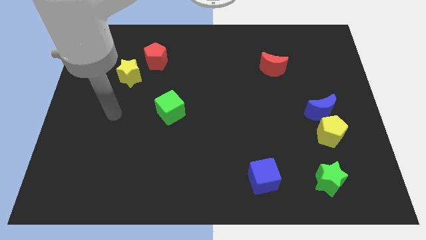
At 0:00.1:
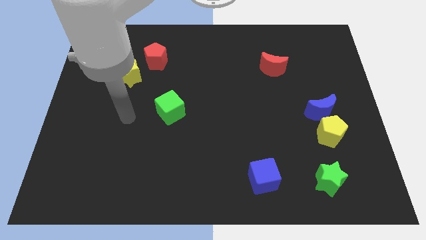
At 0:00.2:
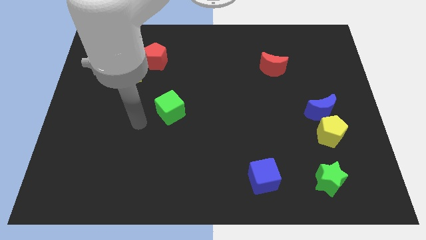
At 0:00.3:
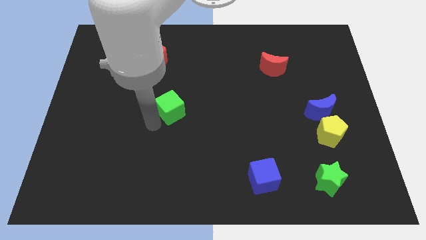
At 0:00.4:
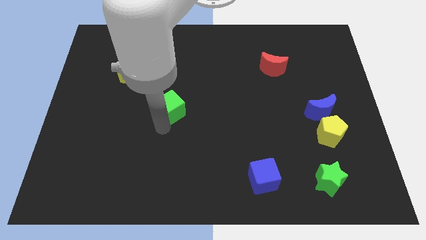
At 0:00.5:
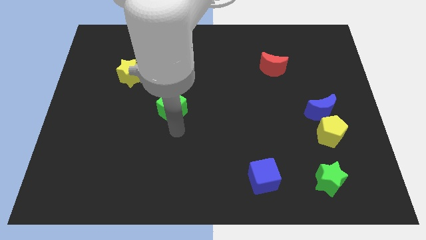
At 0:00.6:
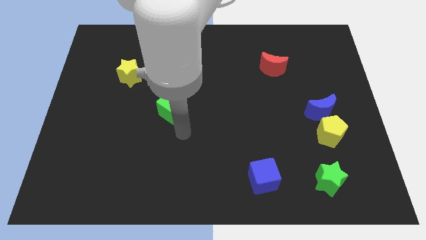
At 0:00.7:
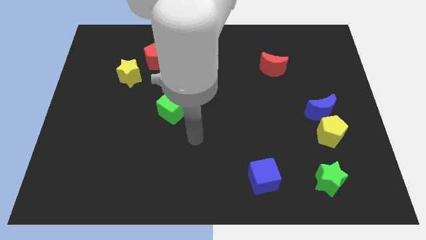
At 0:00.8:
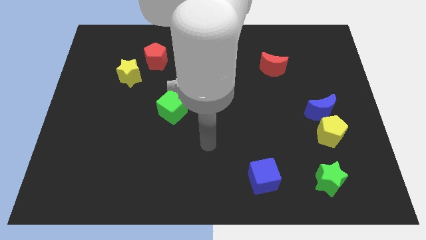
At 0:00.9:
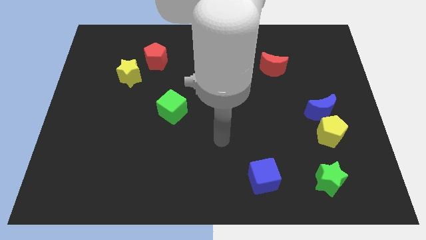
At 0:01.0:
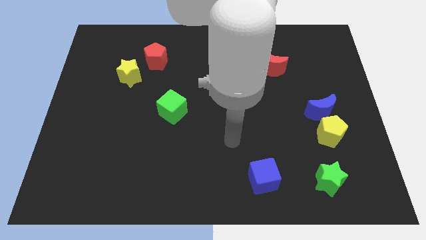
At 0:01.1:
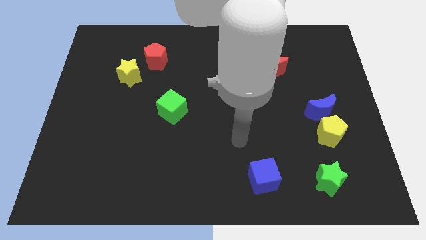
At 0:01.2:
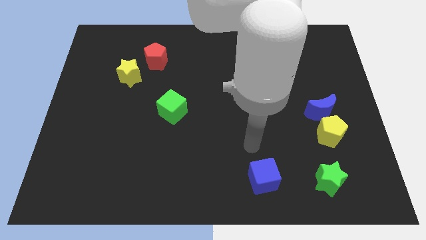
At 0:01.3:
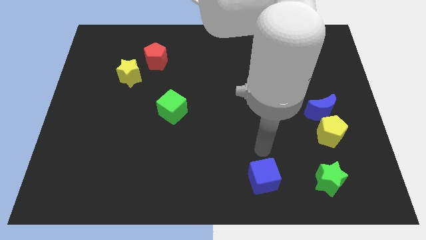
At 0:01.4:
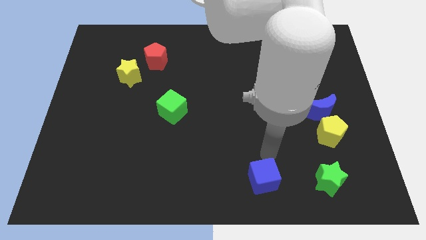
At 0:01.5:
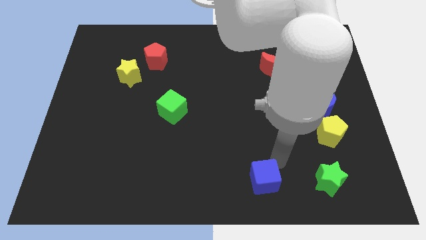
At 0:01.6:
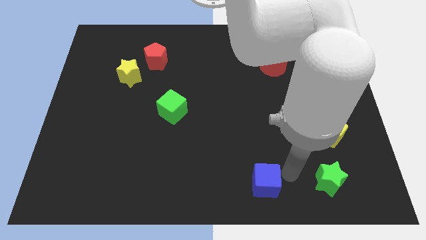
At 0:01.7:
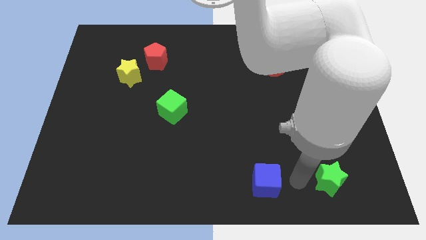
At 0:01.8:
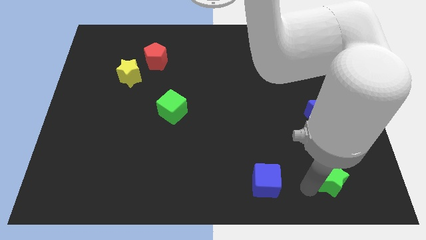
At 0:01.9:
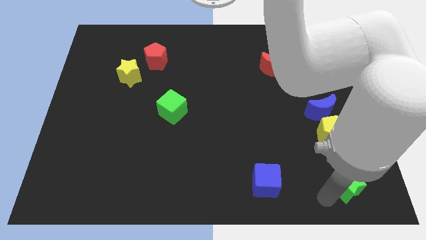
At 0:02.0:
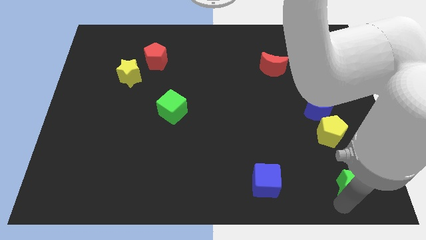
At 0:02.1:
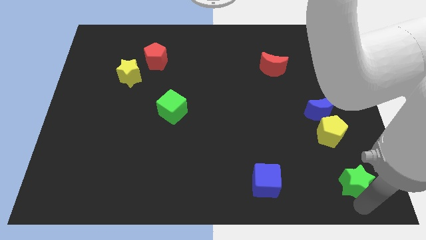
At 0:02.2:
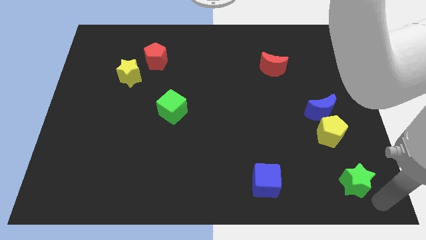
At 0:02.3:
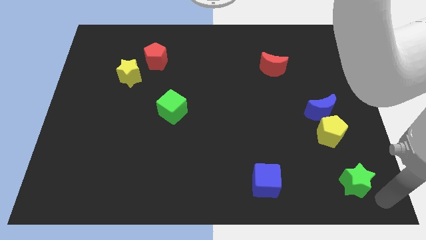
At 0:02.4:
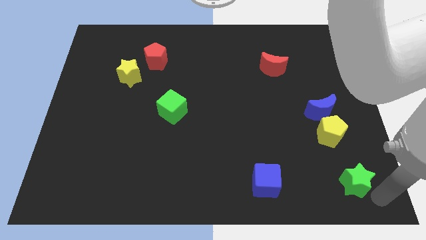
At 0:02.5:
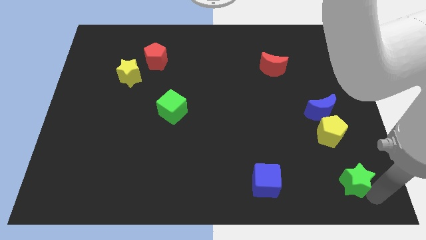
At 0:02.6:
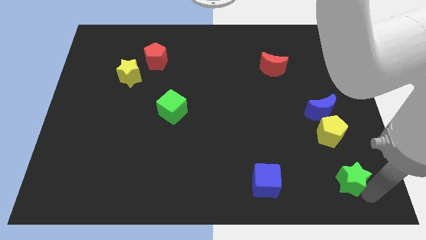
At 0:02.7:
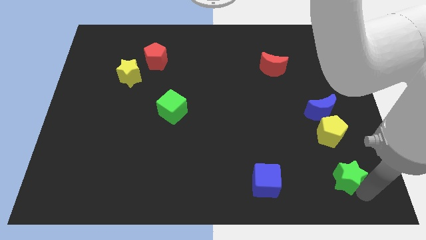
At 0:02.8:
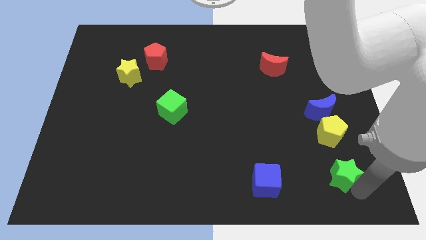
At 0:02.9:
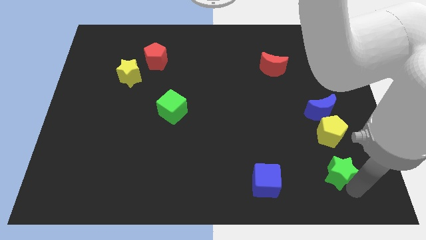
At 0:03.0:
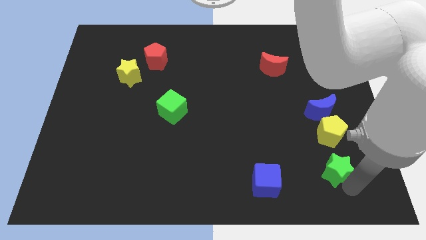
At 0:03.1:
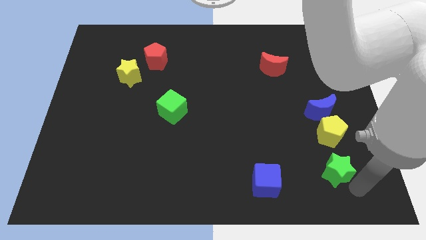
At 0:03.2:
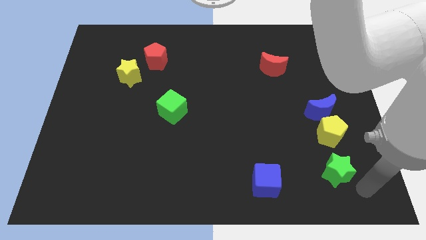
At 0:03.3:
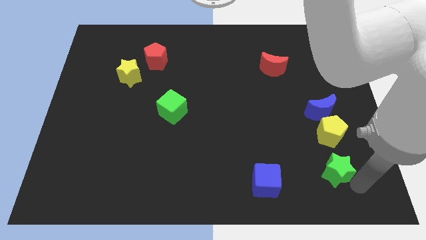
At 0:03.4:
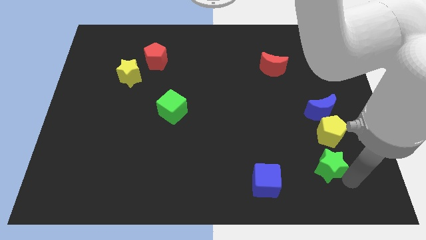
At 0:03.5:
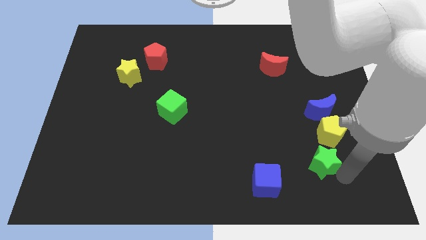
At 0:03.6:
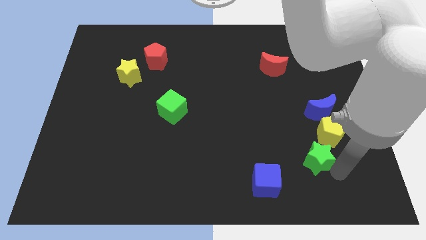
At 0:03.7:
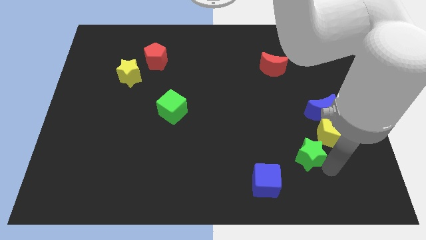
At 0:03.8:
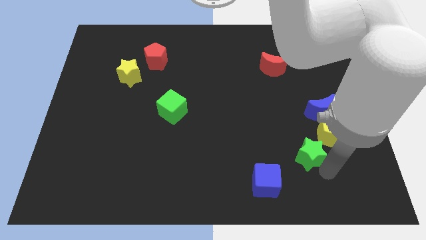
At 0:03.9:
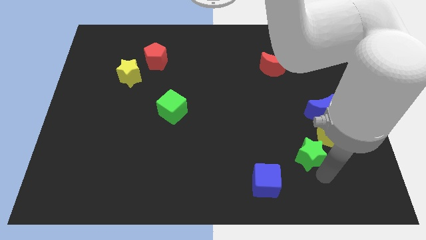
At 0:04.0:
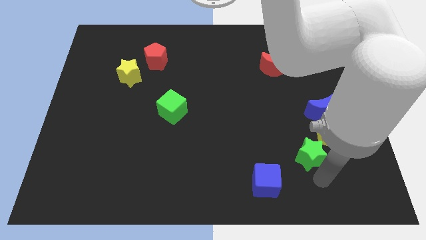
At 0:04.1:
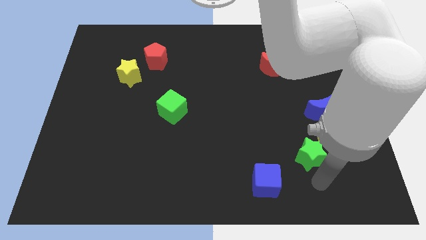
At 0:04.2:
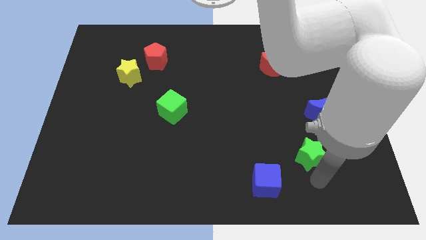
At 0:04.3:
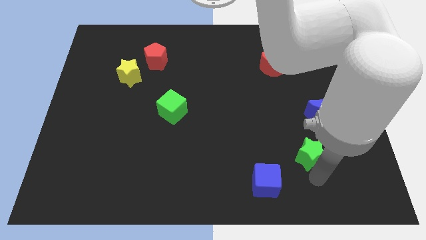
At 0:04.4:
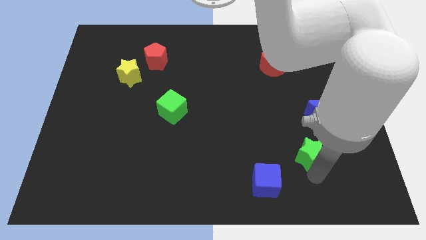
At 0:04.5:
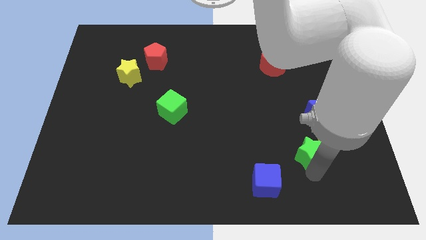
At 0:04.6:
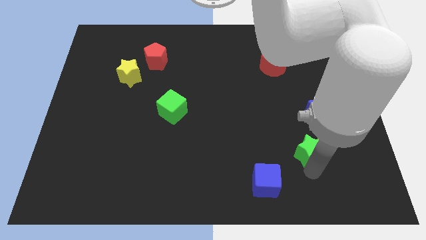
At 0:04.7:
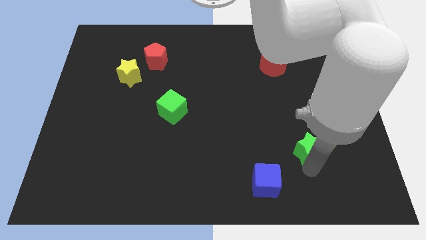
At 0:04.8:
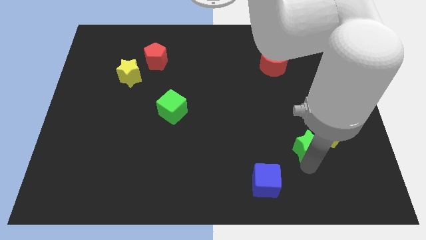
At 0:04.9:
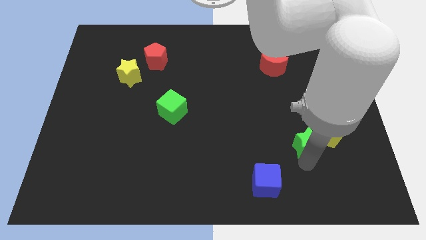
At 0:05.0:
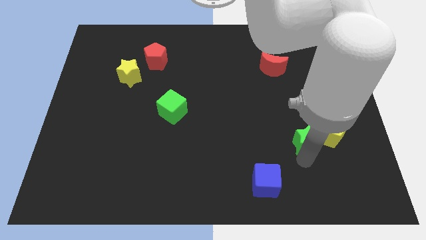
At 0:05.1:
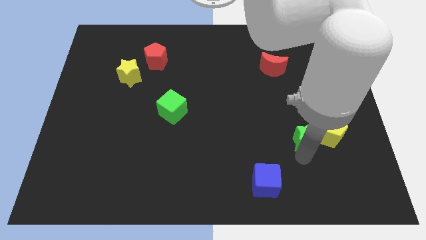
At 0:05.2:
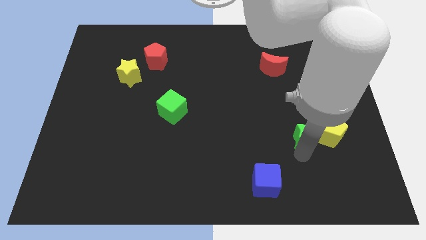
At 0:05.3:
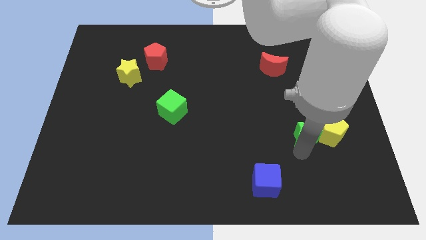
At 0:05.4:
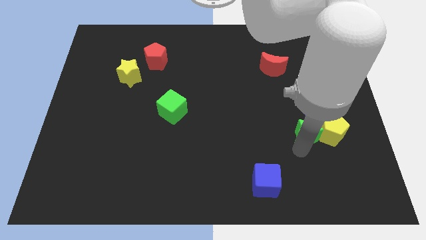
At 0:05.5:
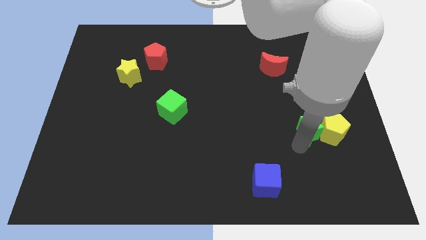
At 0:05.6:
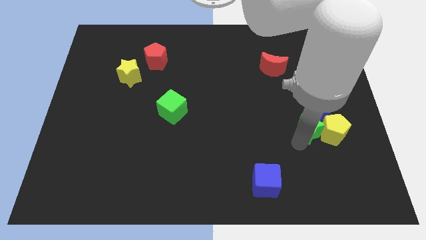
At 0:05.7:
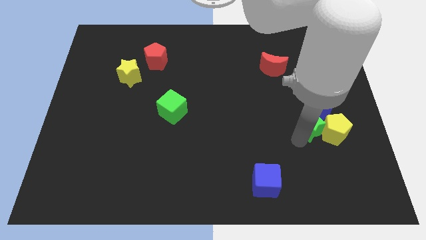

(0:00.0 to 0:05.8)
slide the green star towards the blue moon

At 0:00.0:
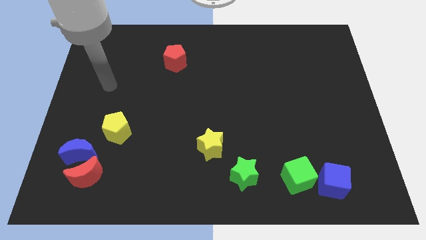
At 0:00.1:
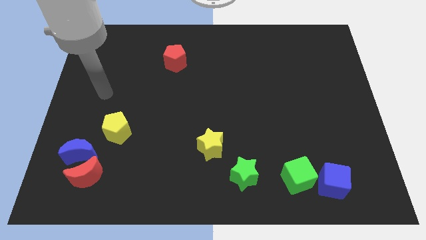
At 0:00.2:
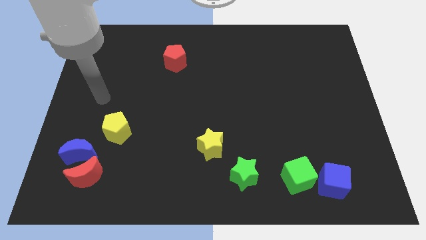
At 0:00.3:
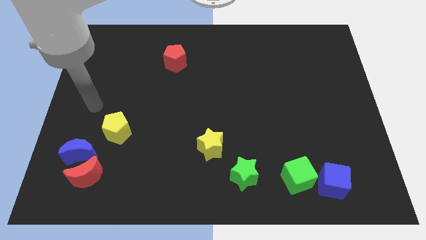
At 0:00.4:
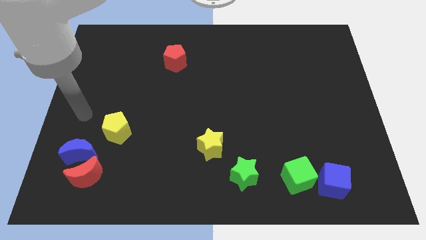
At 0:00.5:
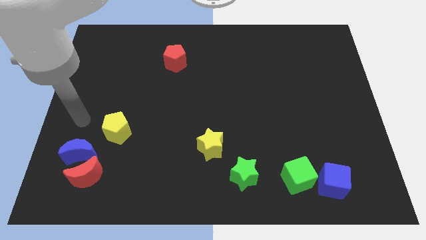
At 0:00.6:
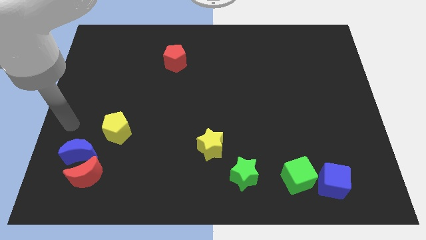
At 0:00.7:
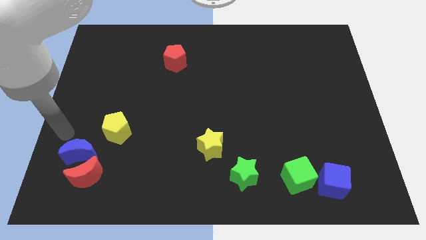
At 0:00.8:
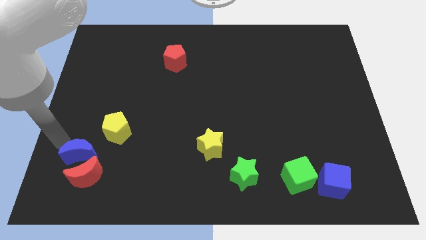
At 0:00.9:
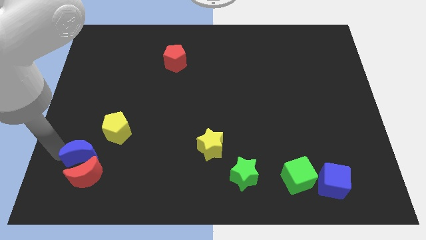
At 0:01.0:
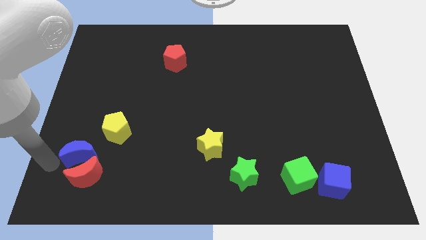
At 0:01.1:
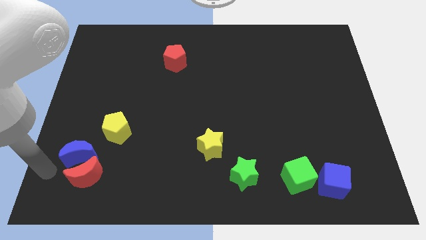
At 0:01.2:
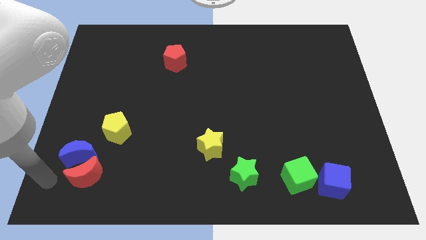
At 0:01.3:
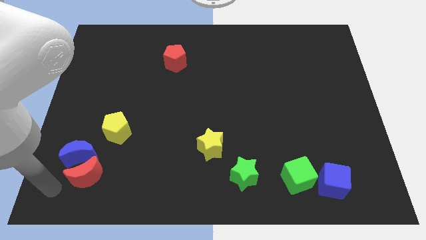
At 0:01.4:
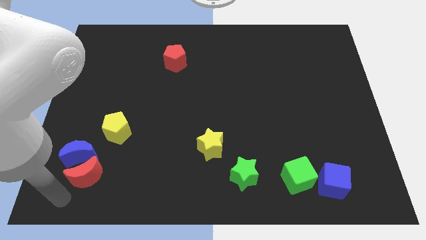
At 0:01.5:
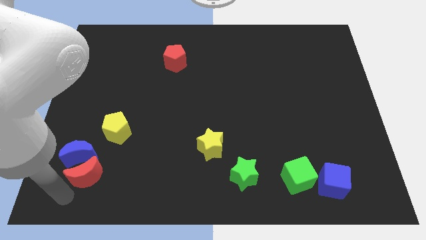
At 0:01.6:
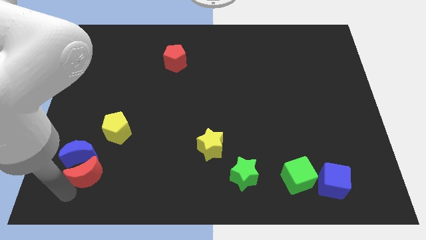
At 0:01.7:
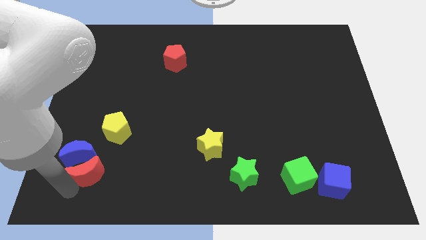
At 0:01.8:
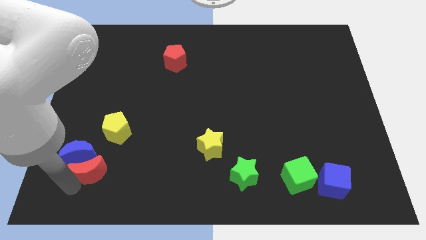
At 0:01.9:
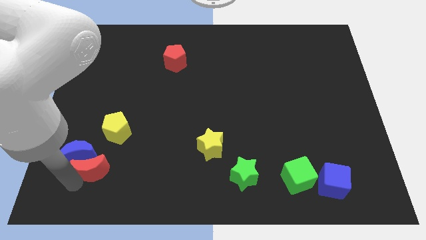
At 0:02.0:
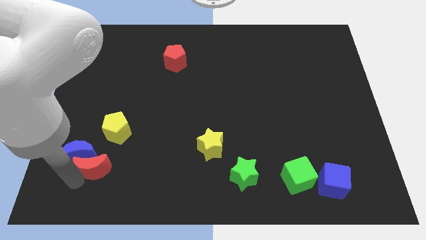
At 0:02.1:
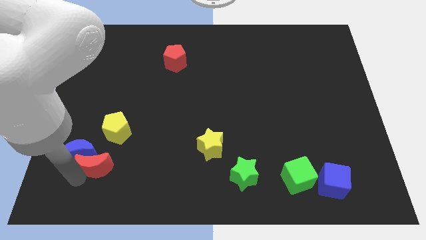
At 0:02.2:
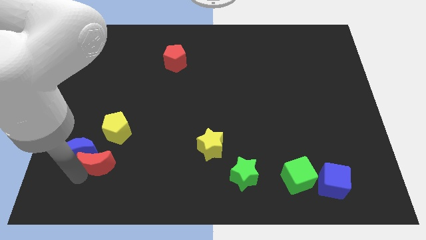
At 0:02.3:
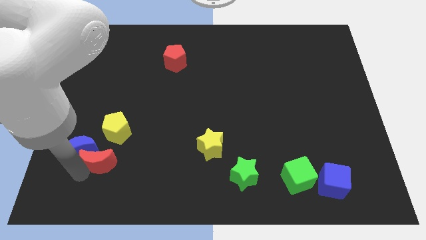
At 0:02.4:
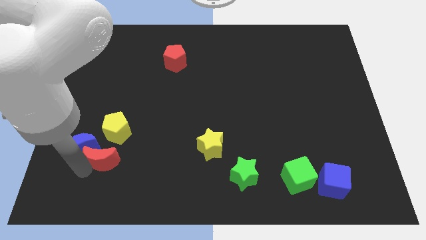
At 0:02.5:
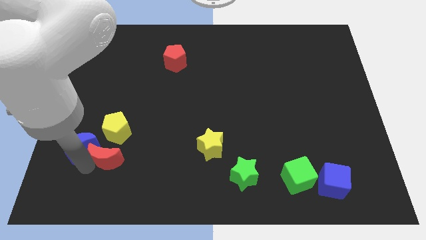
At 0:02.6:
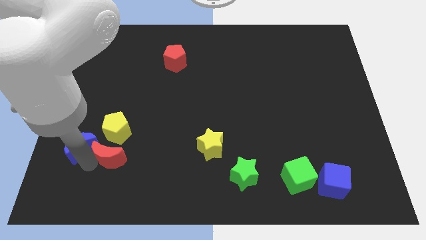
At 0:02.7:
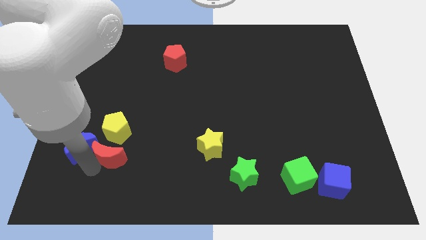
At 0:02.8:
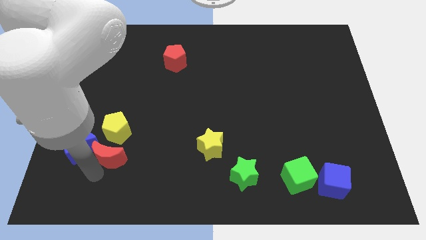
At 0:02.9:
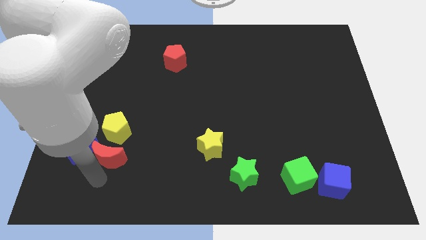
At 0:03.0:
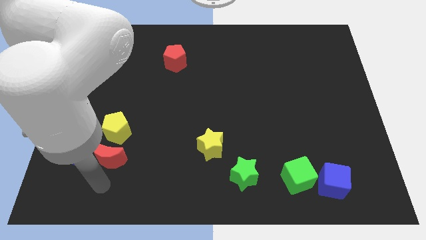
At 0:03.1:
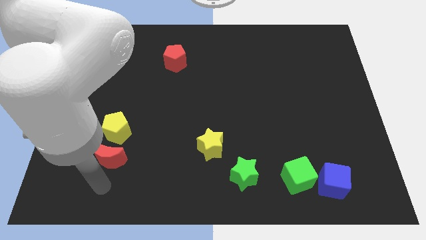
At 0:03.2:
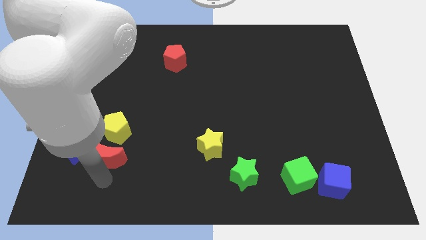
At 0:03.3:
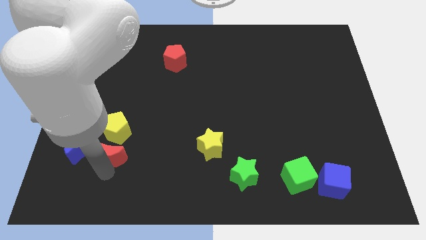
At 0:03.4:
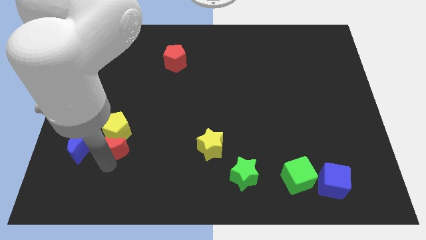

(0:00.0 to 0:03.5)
push the red moon next to the yellow pentagon
